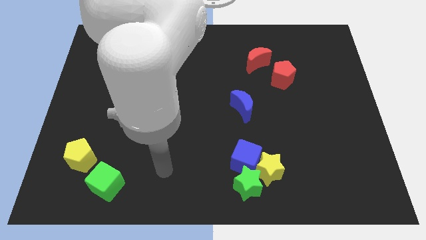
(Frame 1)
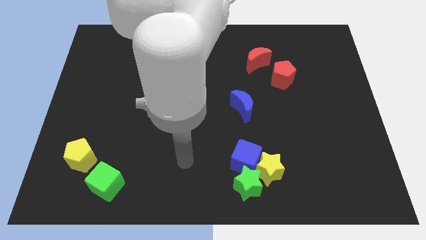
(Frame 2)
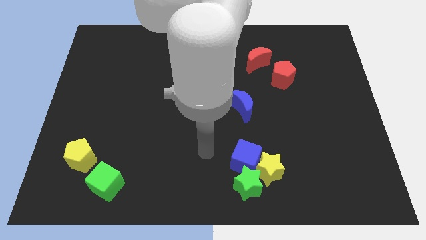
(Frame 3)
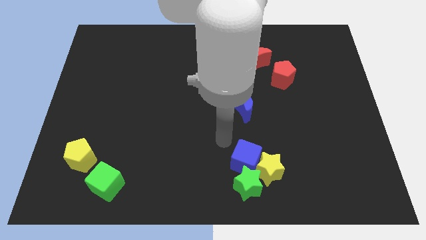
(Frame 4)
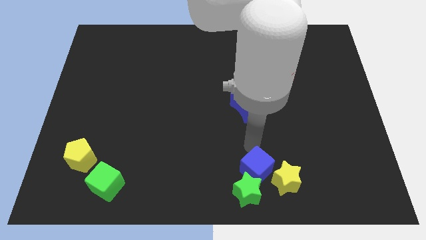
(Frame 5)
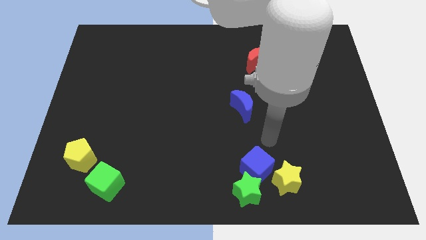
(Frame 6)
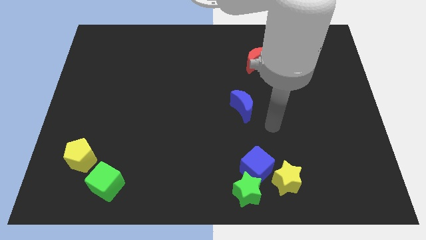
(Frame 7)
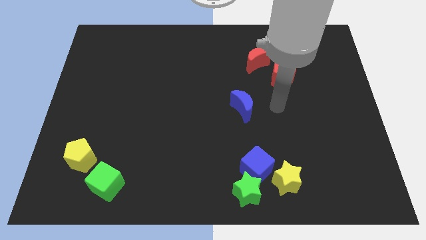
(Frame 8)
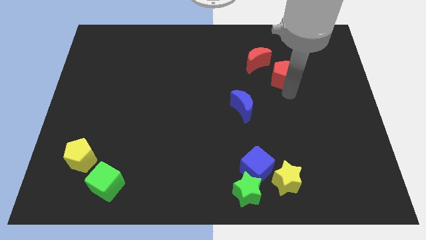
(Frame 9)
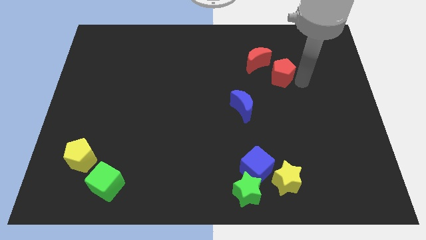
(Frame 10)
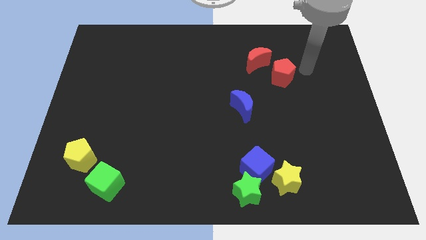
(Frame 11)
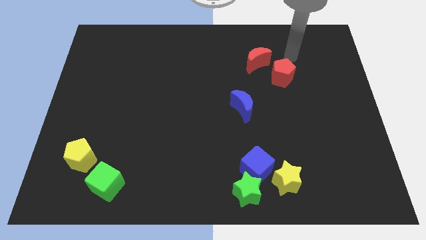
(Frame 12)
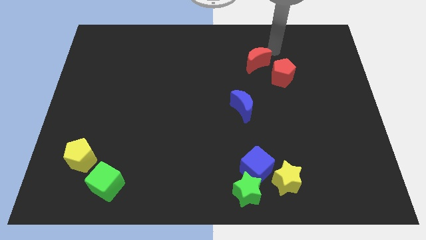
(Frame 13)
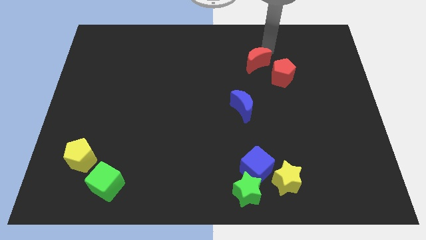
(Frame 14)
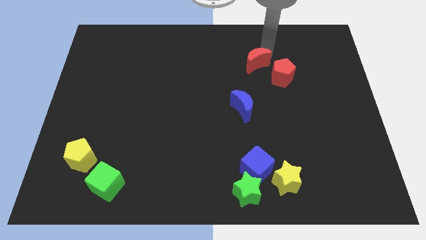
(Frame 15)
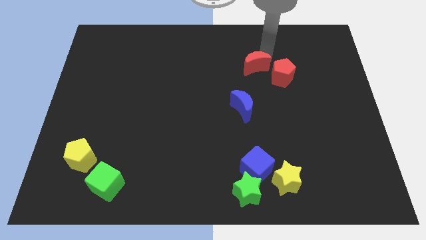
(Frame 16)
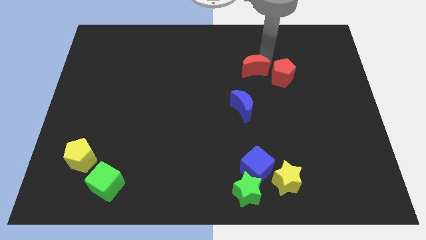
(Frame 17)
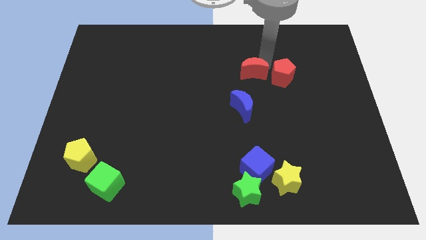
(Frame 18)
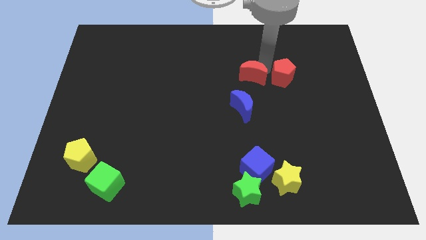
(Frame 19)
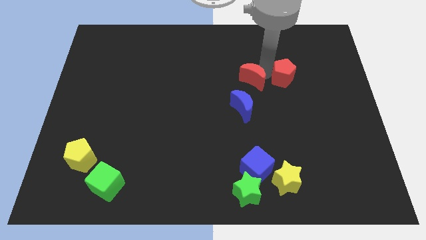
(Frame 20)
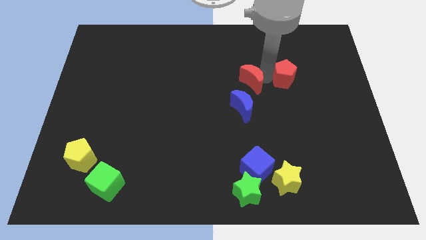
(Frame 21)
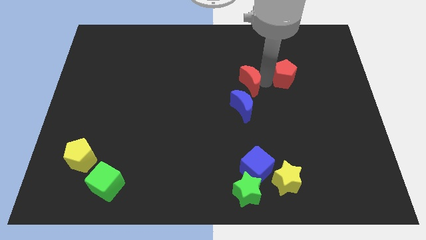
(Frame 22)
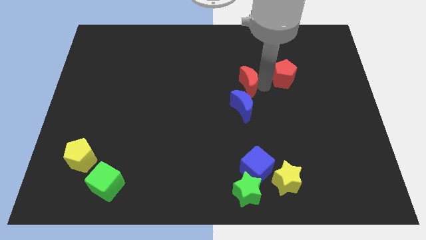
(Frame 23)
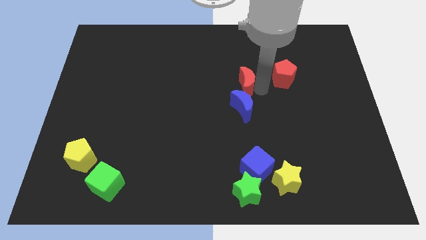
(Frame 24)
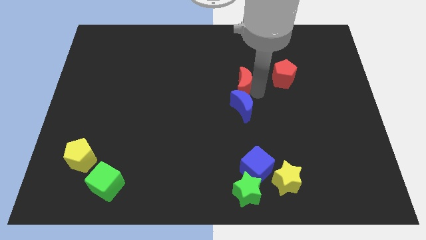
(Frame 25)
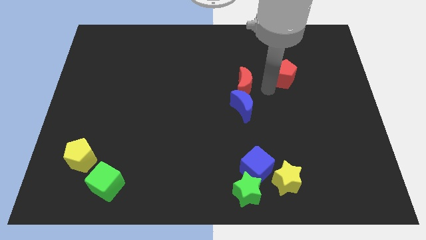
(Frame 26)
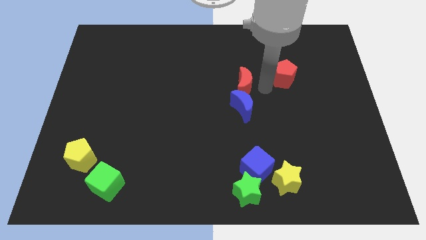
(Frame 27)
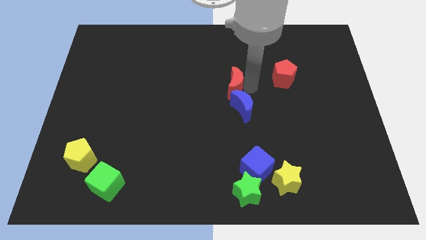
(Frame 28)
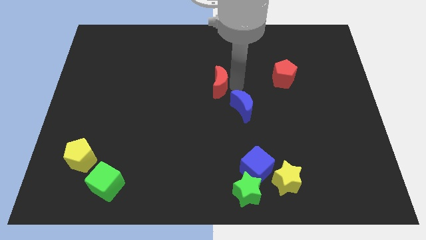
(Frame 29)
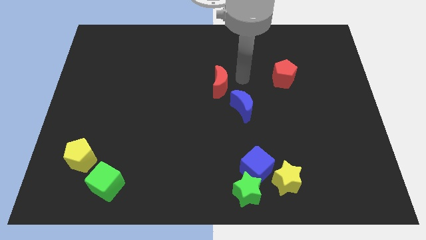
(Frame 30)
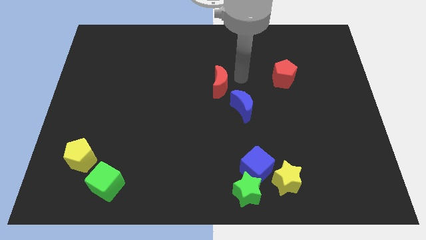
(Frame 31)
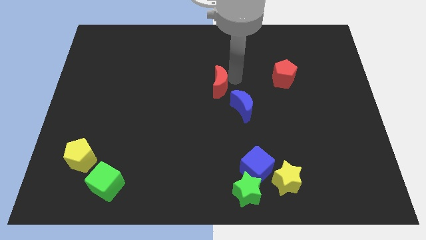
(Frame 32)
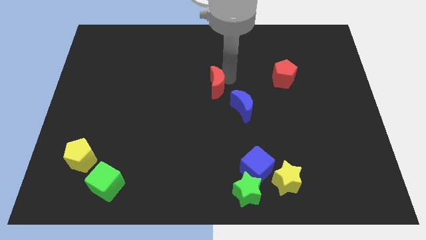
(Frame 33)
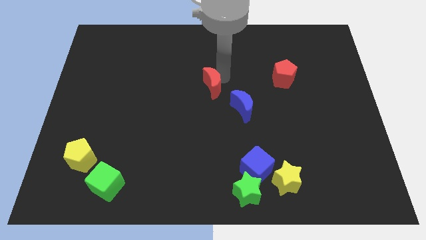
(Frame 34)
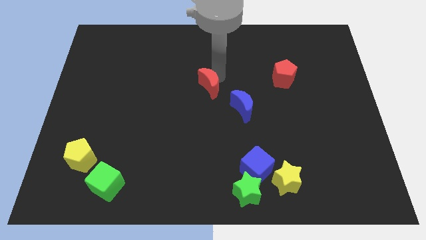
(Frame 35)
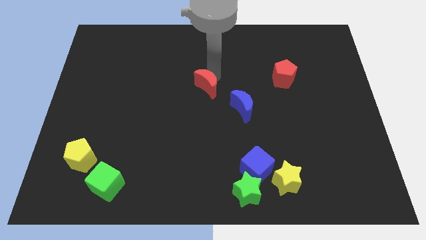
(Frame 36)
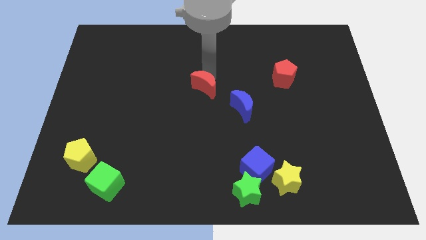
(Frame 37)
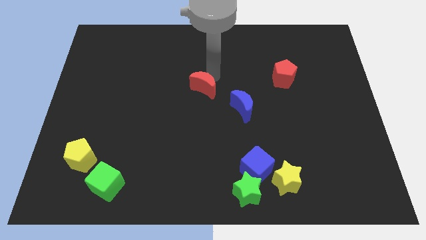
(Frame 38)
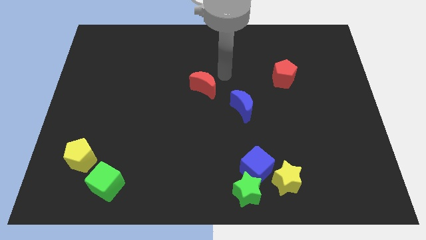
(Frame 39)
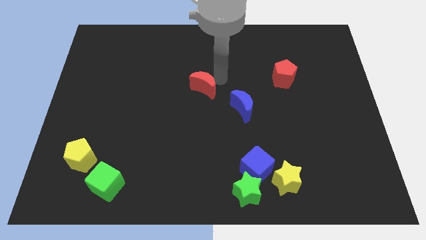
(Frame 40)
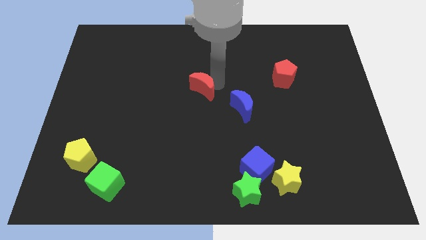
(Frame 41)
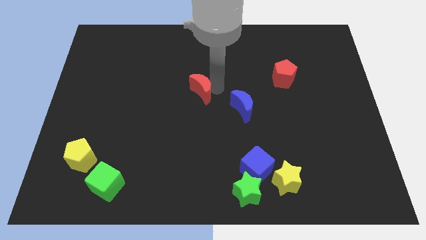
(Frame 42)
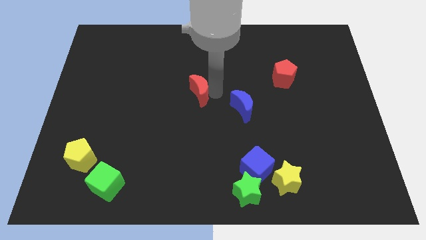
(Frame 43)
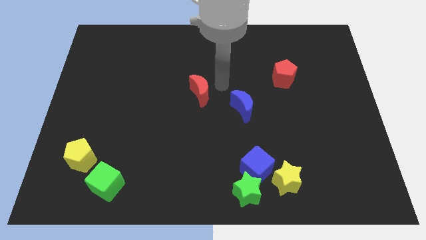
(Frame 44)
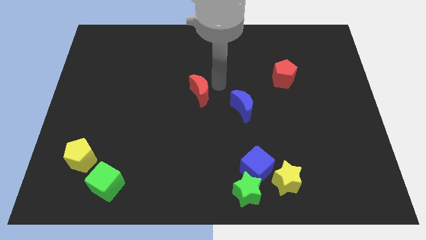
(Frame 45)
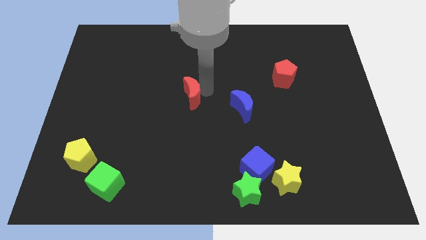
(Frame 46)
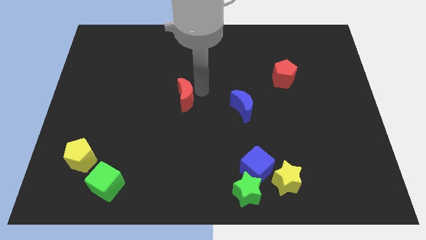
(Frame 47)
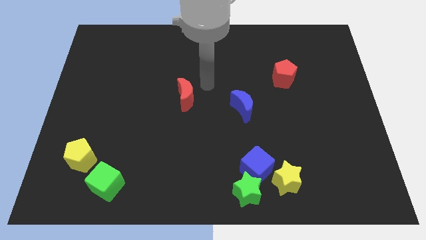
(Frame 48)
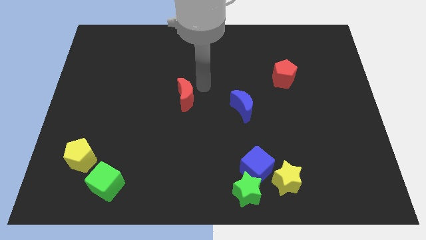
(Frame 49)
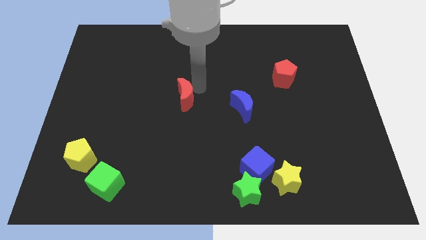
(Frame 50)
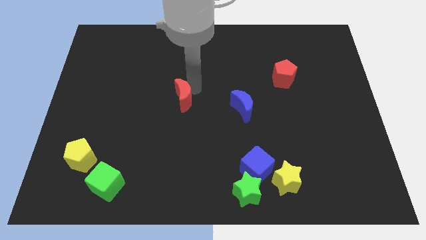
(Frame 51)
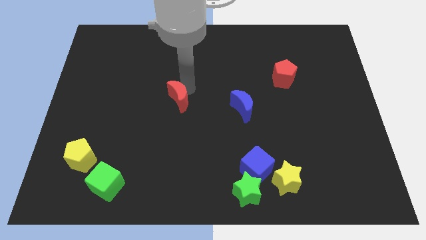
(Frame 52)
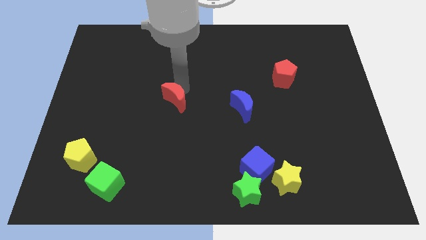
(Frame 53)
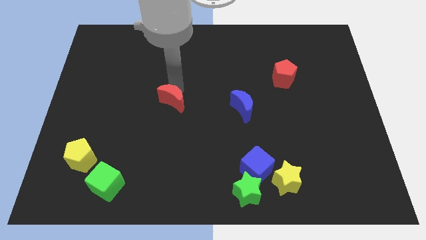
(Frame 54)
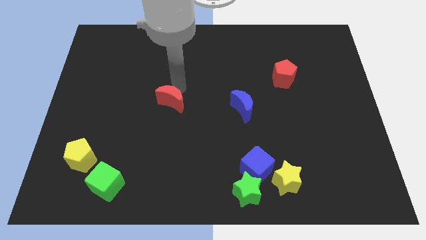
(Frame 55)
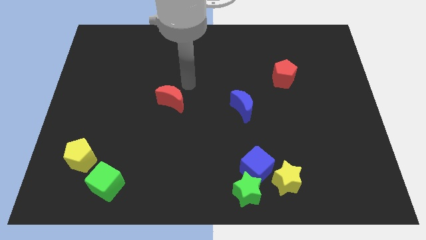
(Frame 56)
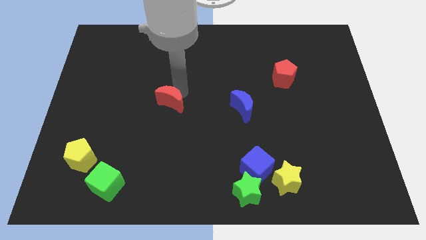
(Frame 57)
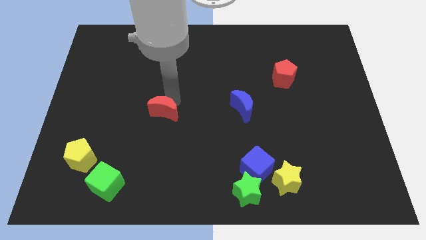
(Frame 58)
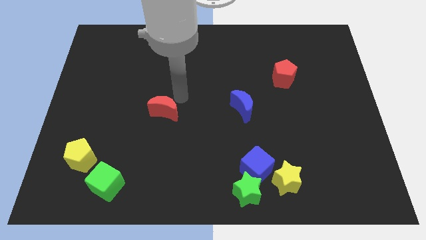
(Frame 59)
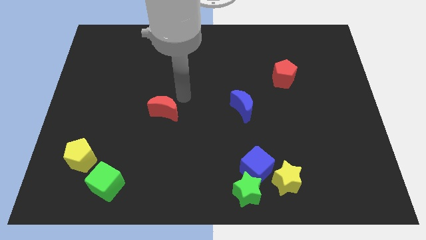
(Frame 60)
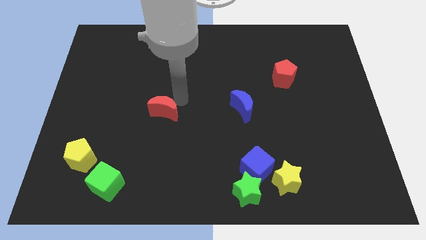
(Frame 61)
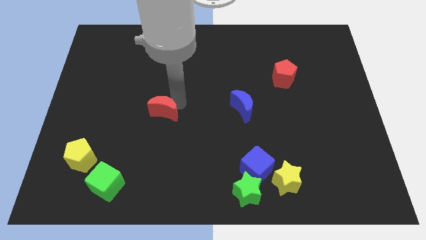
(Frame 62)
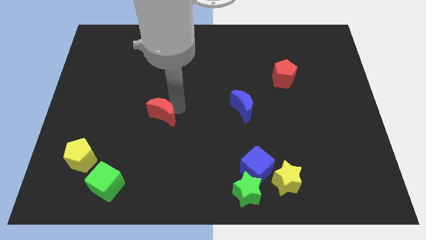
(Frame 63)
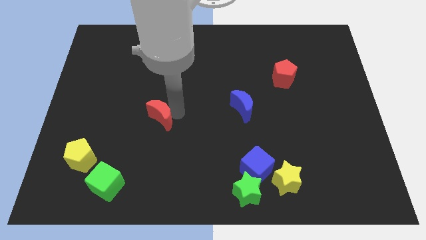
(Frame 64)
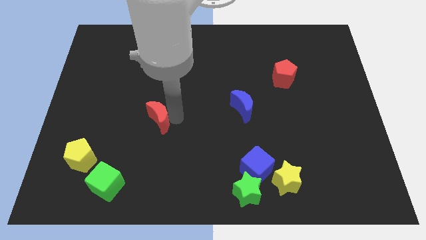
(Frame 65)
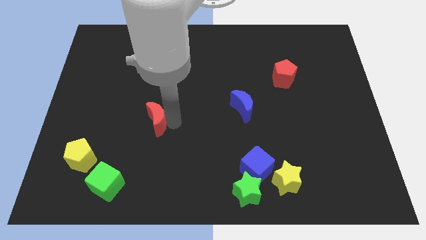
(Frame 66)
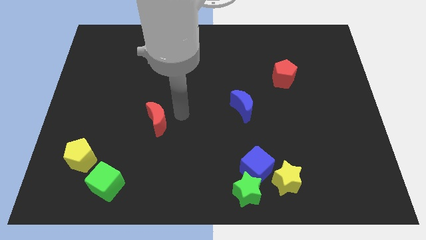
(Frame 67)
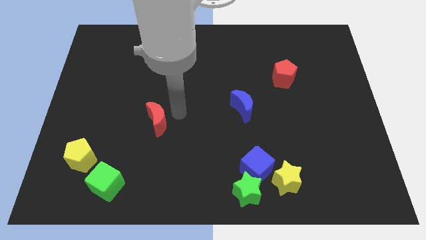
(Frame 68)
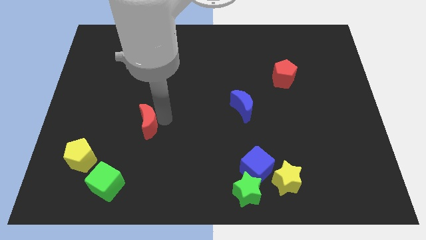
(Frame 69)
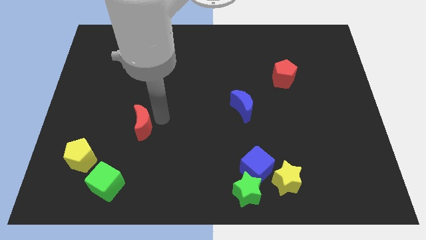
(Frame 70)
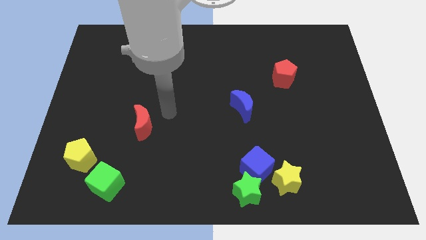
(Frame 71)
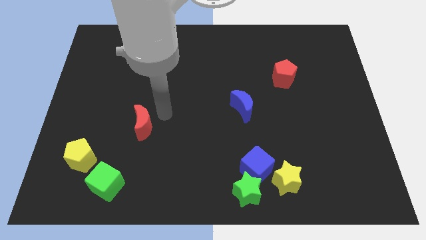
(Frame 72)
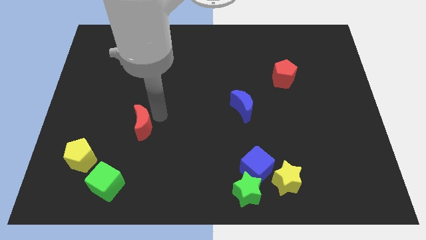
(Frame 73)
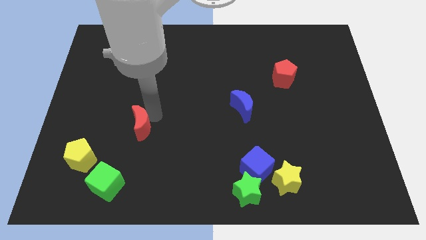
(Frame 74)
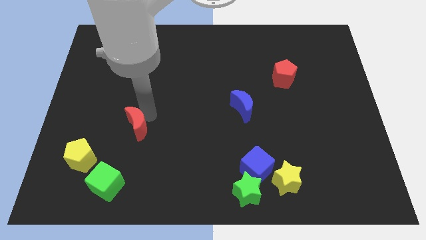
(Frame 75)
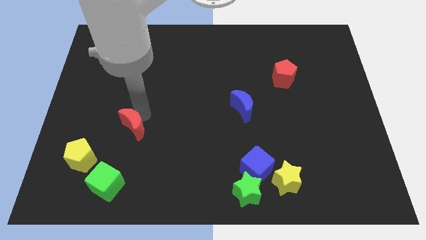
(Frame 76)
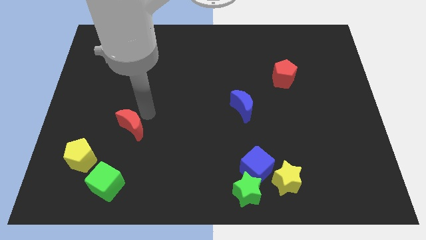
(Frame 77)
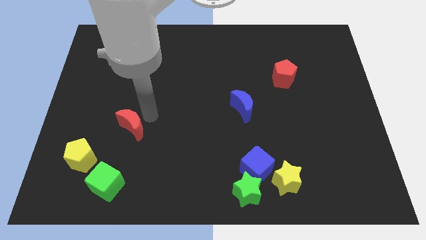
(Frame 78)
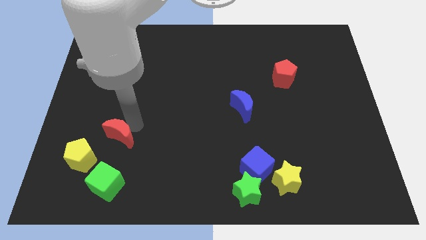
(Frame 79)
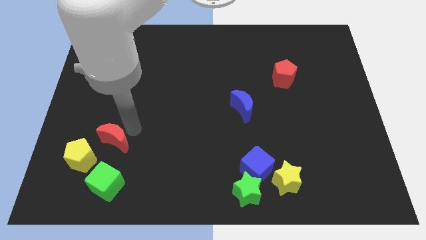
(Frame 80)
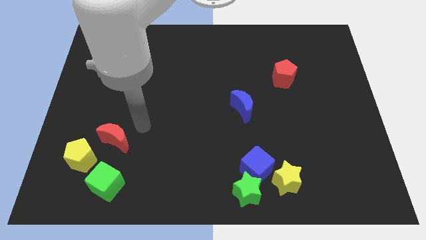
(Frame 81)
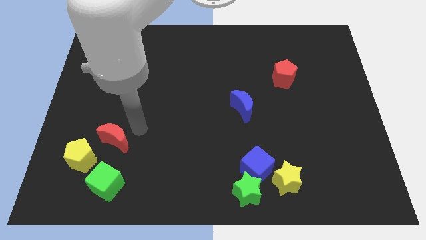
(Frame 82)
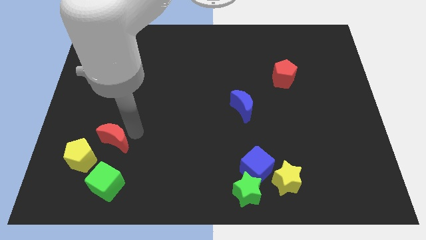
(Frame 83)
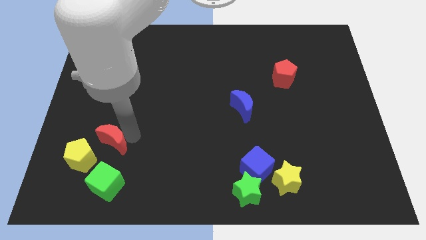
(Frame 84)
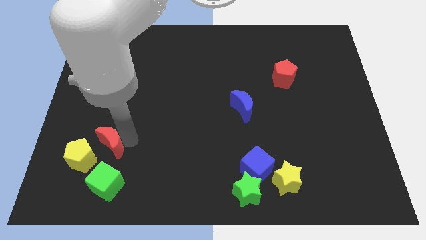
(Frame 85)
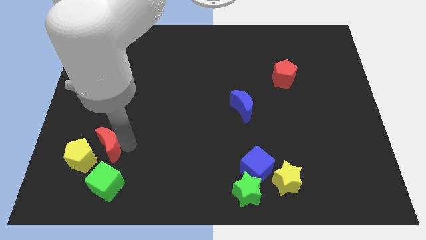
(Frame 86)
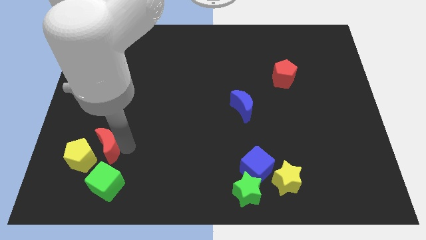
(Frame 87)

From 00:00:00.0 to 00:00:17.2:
slide the red moon next to the yellow pentagon
